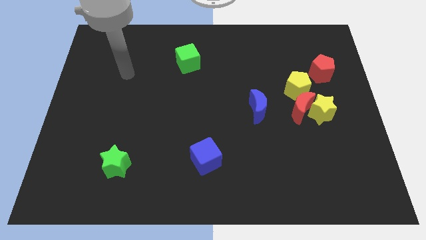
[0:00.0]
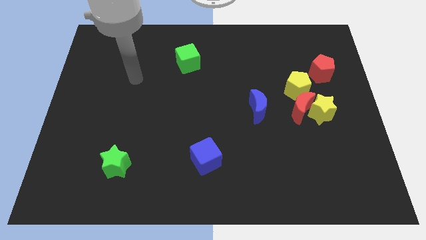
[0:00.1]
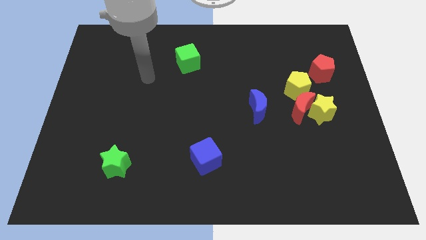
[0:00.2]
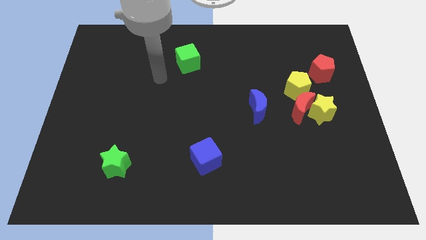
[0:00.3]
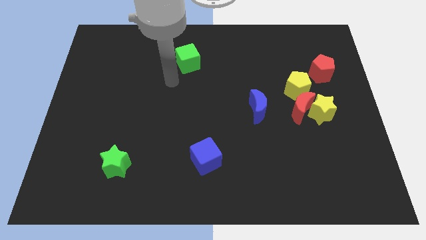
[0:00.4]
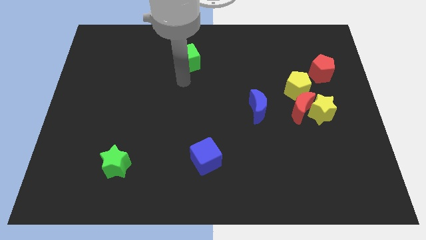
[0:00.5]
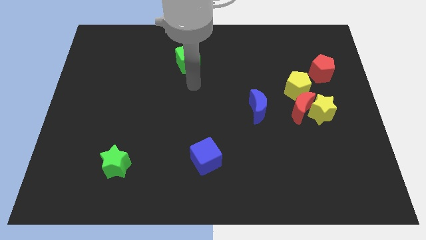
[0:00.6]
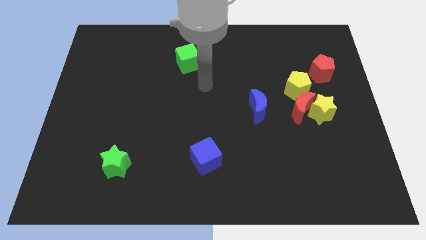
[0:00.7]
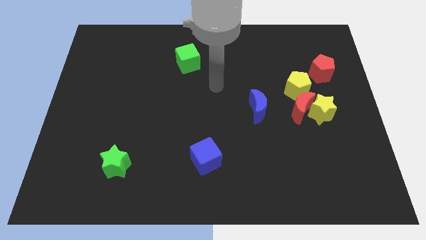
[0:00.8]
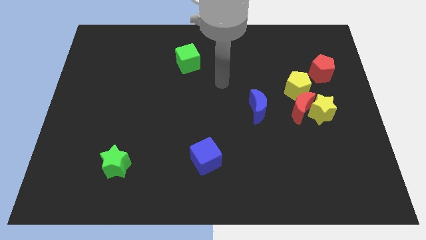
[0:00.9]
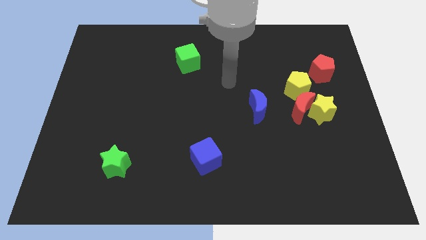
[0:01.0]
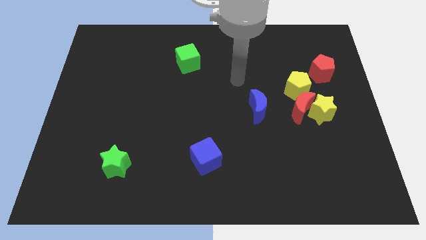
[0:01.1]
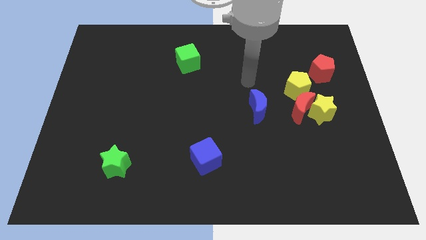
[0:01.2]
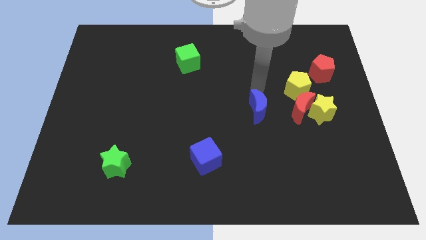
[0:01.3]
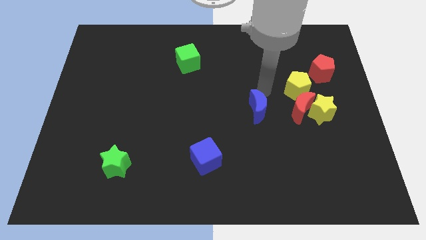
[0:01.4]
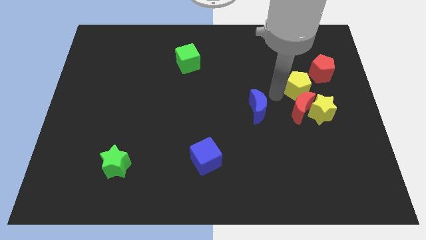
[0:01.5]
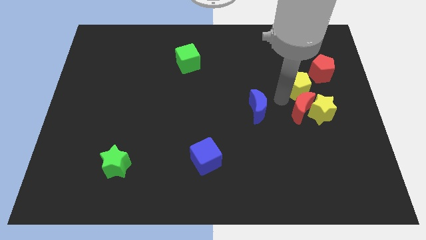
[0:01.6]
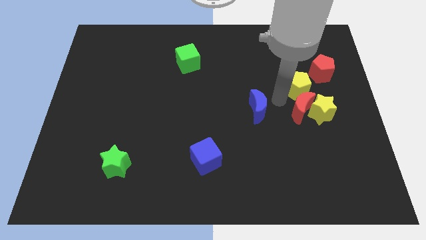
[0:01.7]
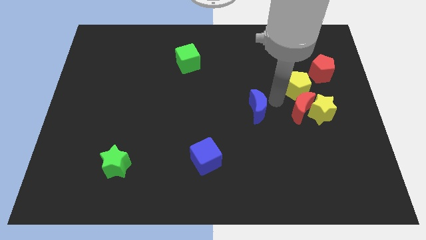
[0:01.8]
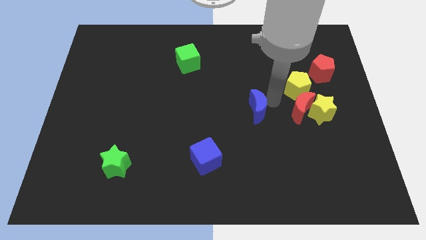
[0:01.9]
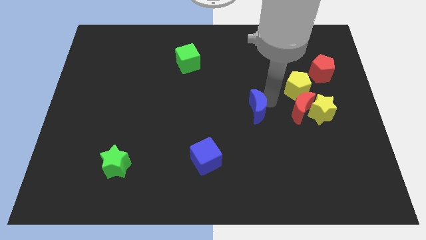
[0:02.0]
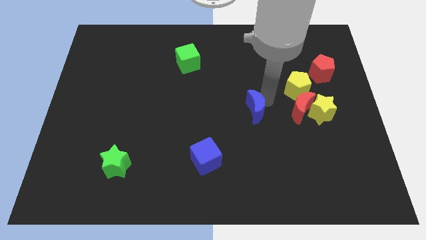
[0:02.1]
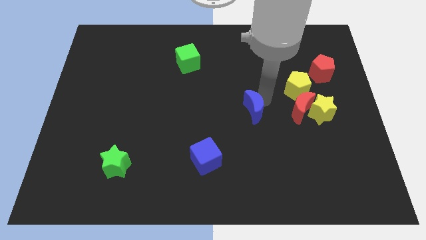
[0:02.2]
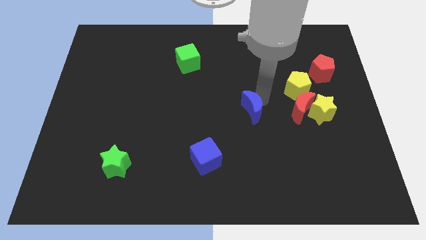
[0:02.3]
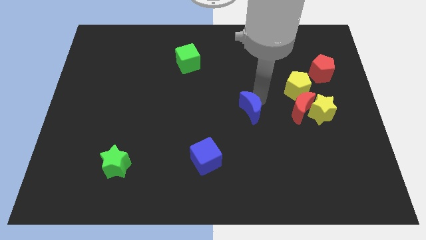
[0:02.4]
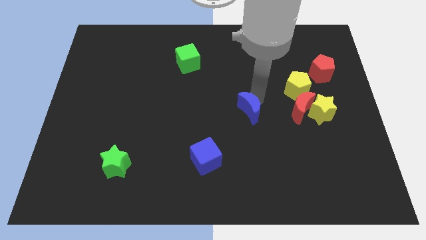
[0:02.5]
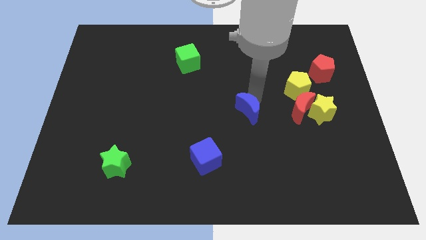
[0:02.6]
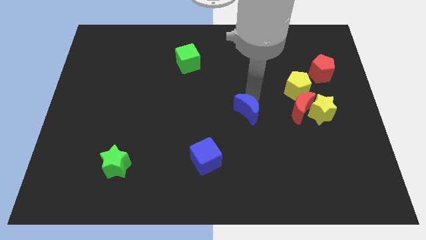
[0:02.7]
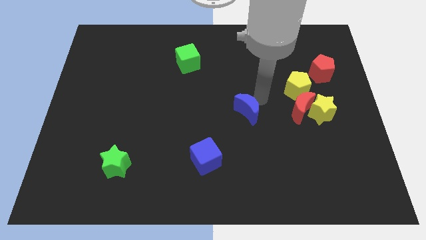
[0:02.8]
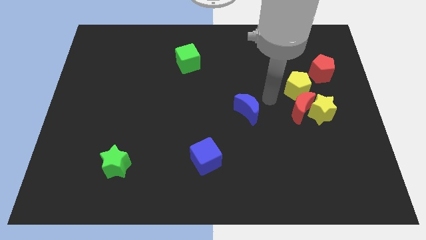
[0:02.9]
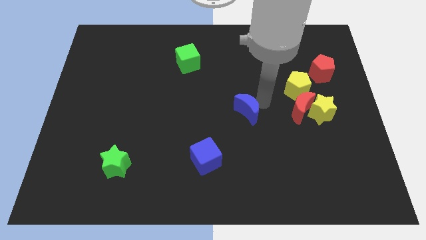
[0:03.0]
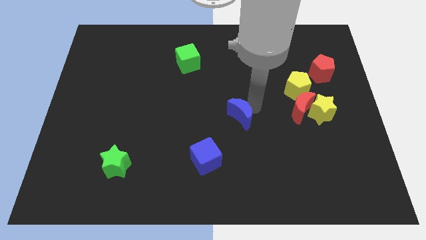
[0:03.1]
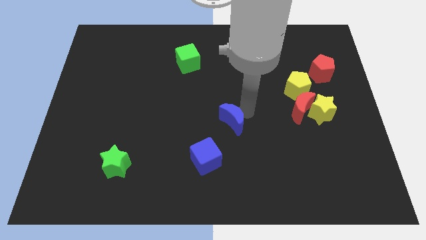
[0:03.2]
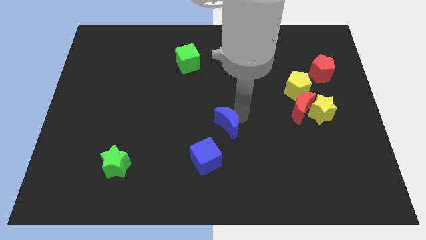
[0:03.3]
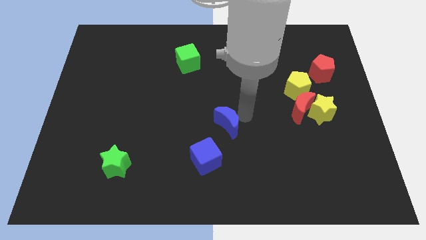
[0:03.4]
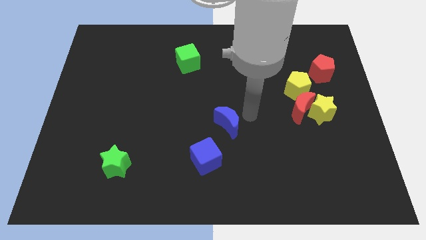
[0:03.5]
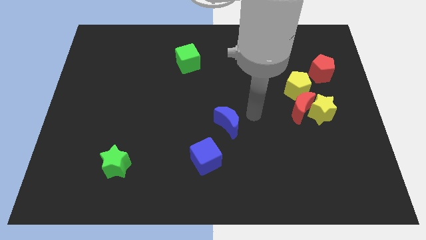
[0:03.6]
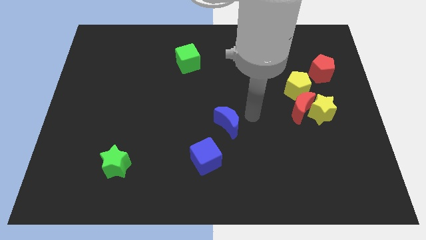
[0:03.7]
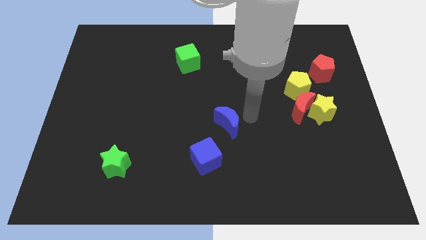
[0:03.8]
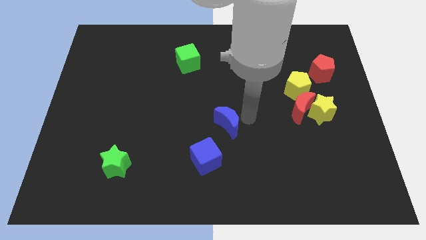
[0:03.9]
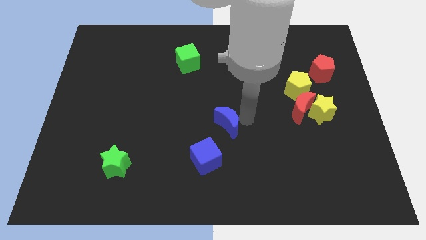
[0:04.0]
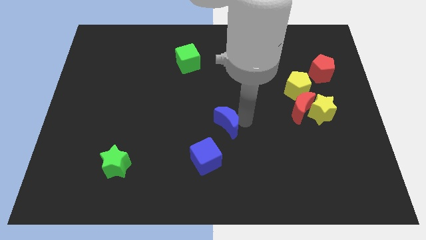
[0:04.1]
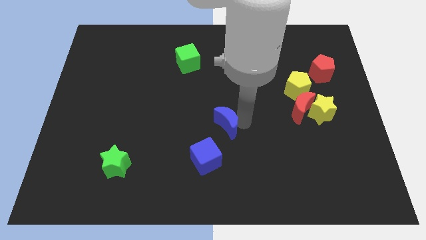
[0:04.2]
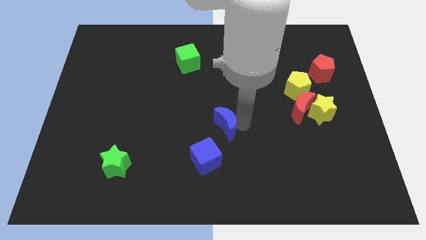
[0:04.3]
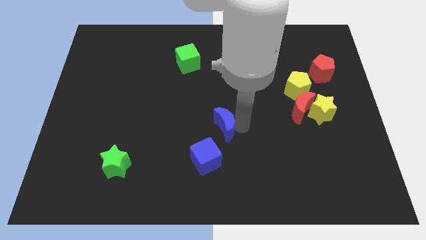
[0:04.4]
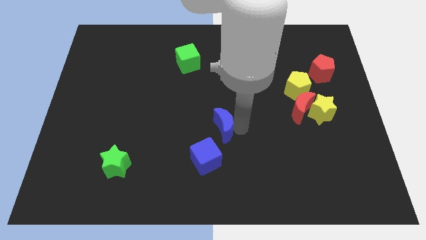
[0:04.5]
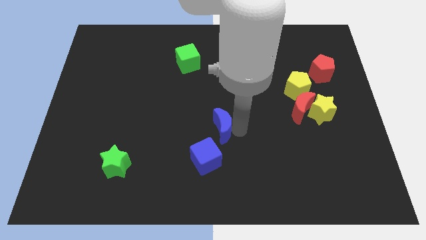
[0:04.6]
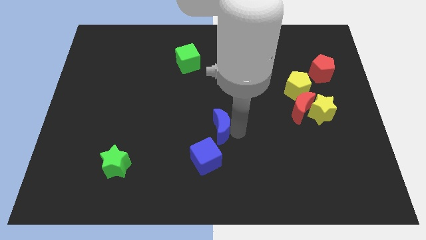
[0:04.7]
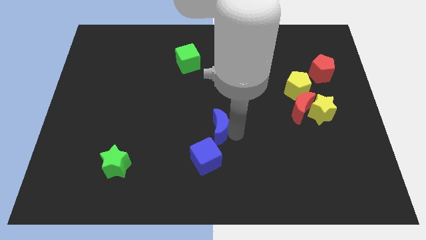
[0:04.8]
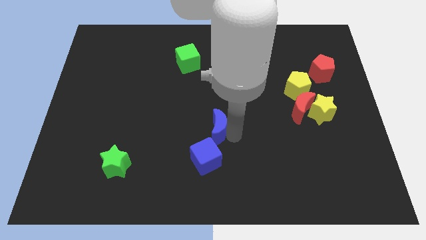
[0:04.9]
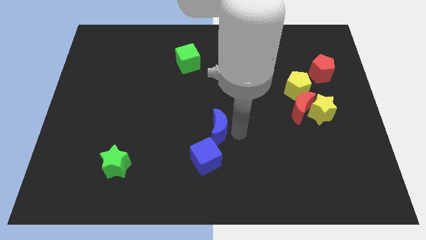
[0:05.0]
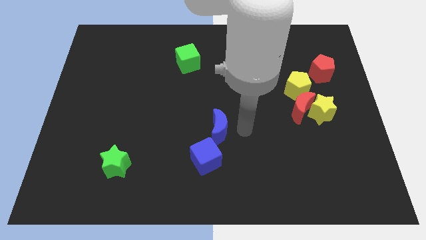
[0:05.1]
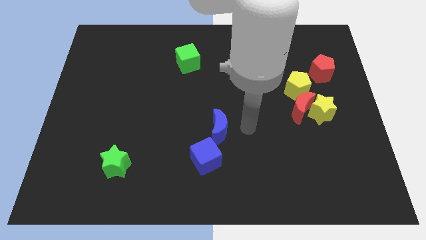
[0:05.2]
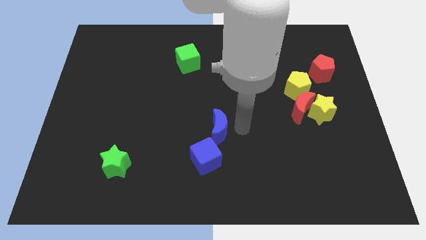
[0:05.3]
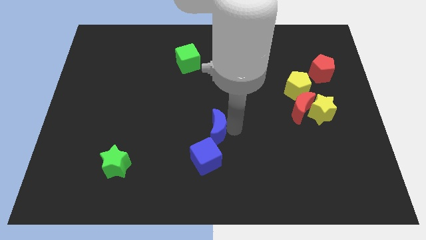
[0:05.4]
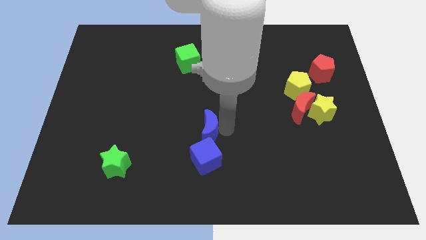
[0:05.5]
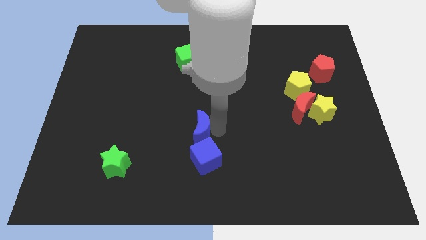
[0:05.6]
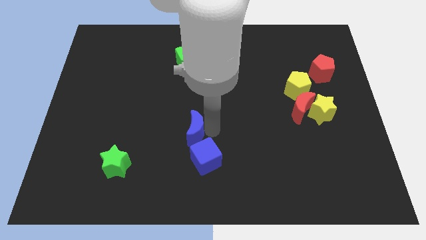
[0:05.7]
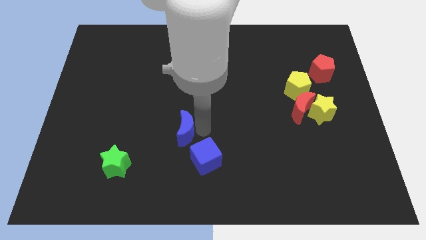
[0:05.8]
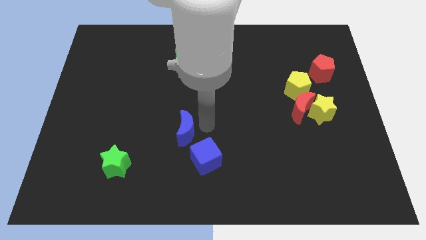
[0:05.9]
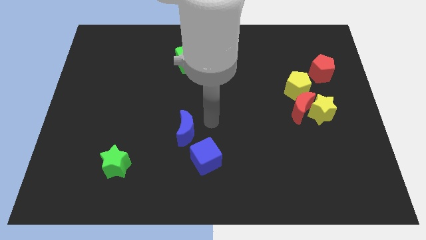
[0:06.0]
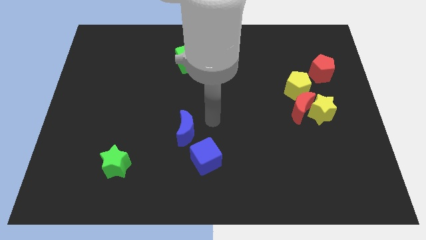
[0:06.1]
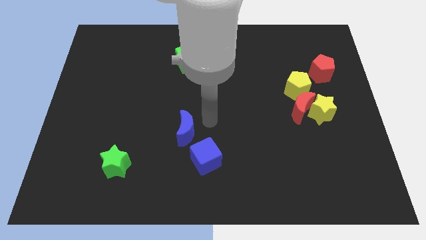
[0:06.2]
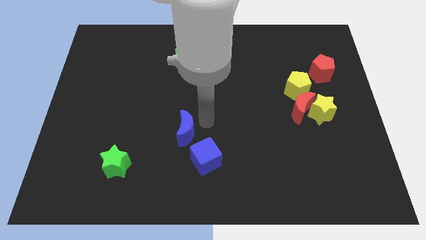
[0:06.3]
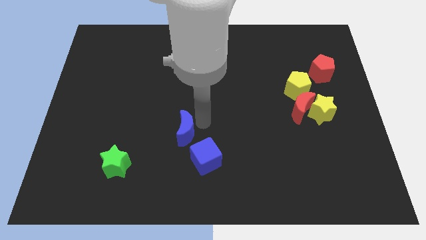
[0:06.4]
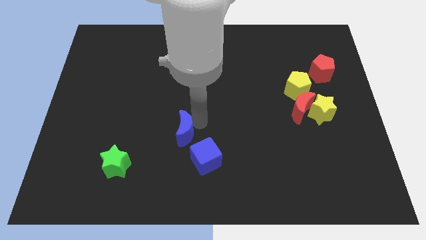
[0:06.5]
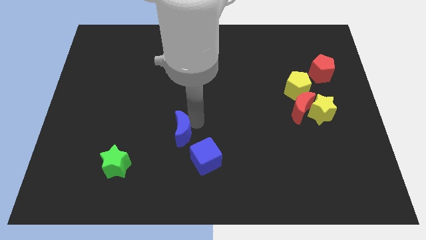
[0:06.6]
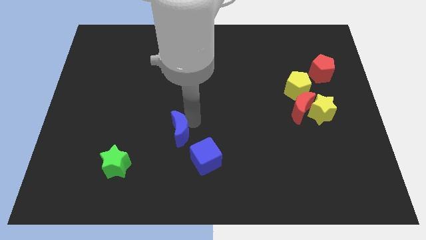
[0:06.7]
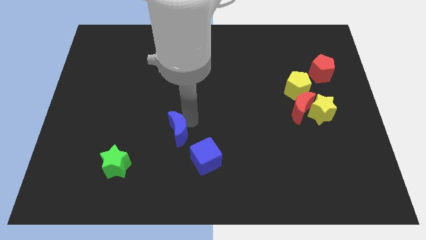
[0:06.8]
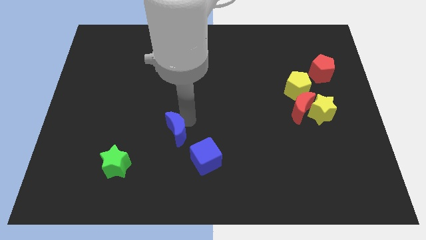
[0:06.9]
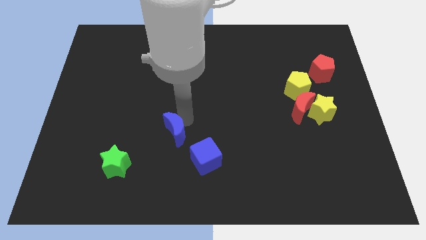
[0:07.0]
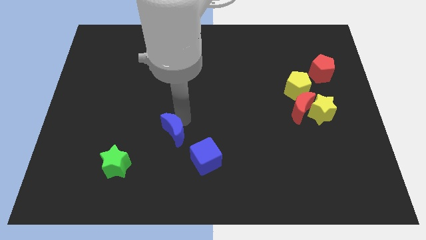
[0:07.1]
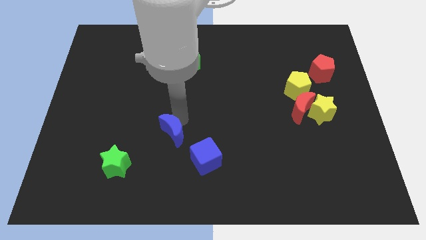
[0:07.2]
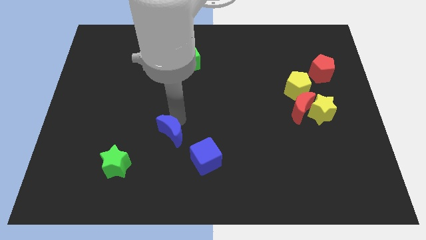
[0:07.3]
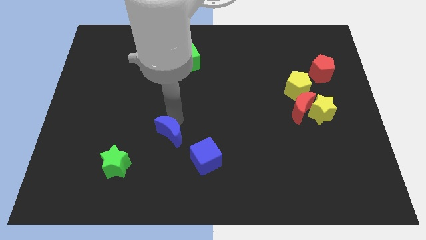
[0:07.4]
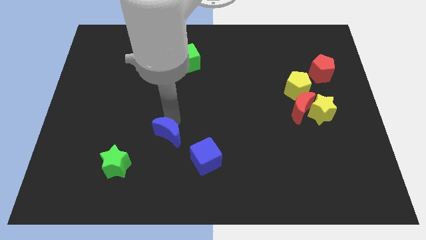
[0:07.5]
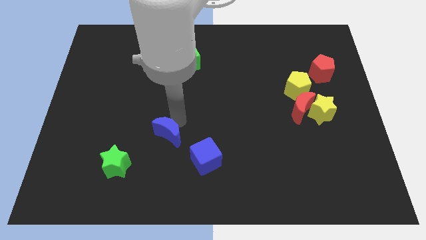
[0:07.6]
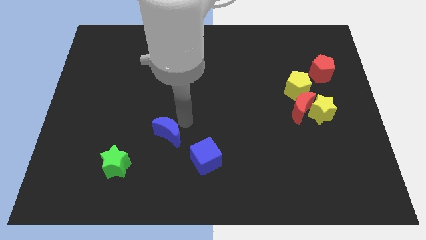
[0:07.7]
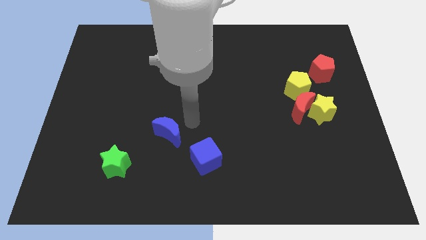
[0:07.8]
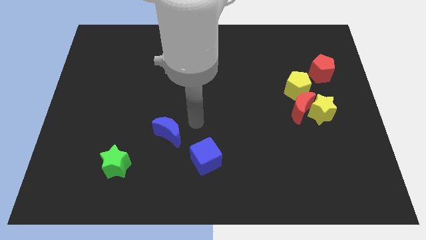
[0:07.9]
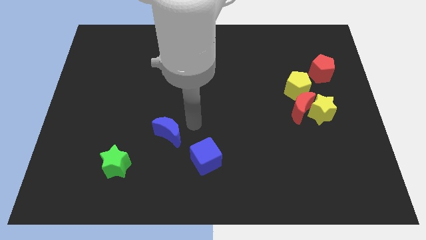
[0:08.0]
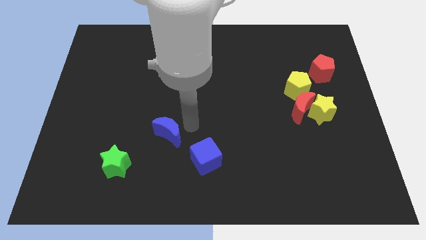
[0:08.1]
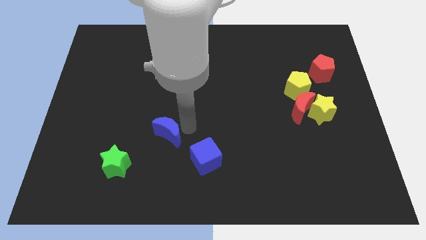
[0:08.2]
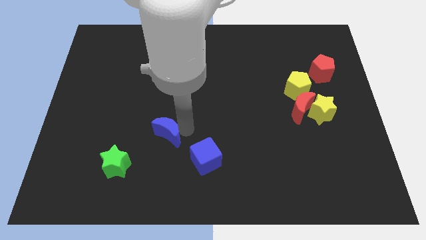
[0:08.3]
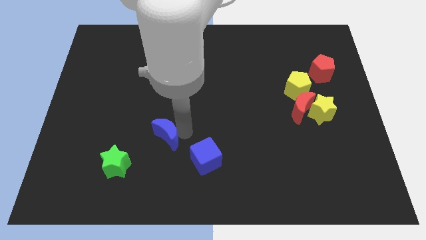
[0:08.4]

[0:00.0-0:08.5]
push the blue moon to the top right of the green star
